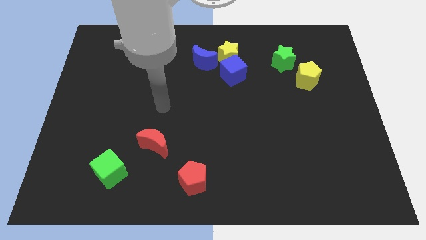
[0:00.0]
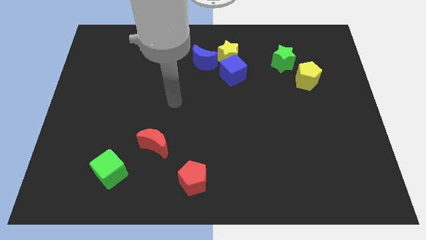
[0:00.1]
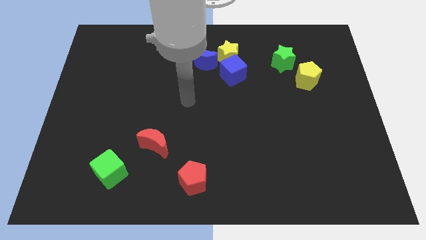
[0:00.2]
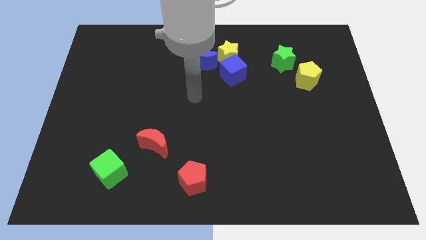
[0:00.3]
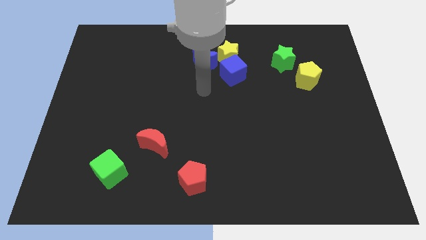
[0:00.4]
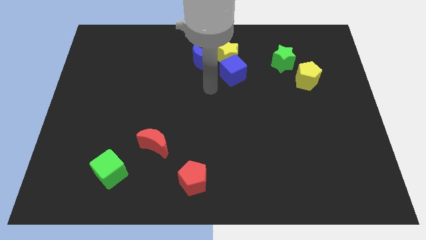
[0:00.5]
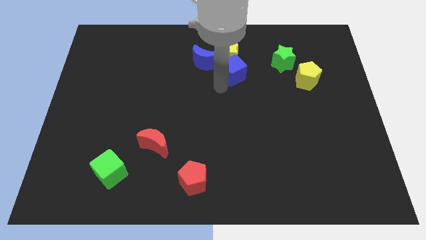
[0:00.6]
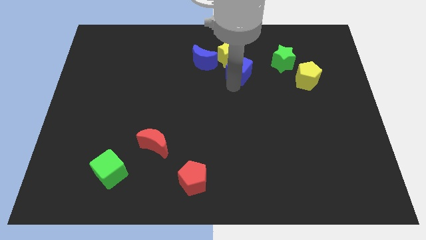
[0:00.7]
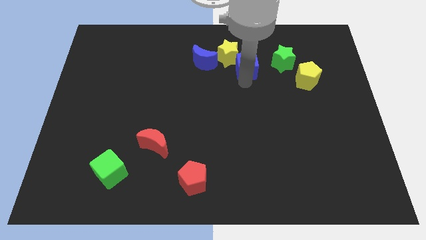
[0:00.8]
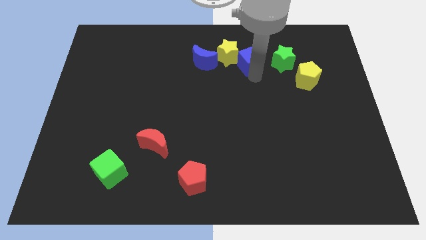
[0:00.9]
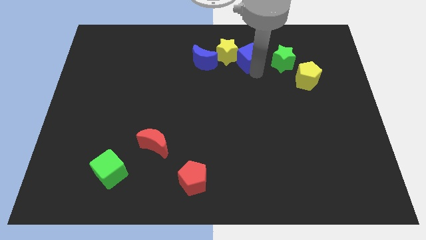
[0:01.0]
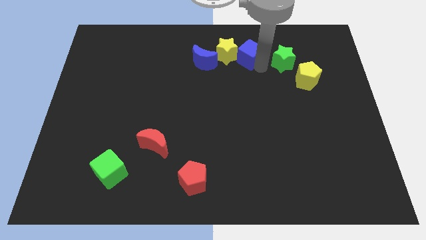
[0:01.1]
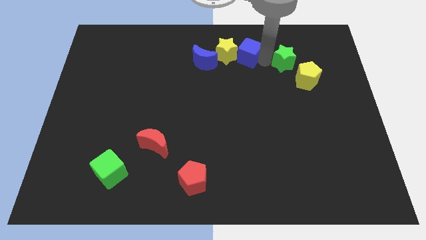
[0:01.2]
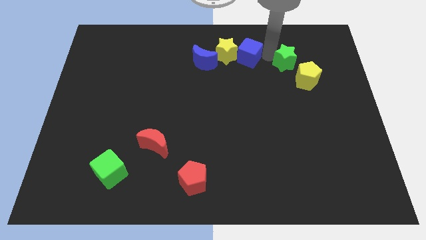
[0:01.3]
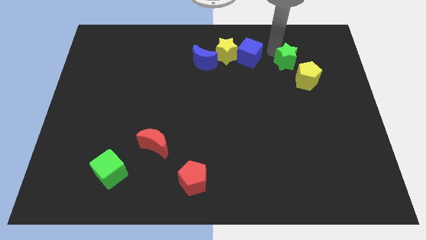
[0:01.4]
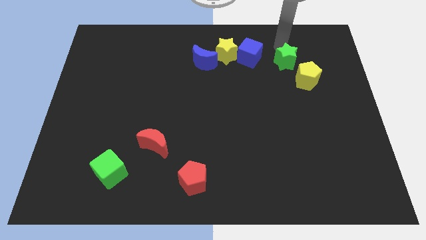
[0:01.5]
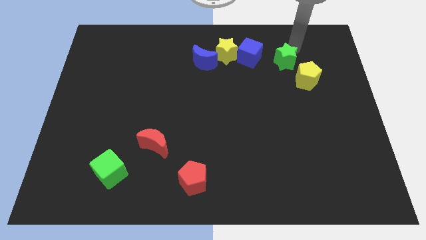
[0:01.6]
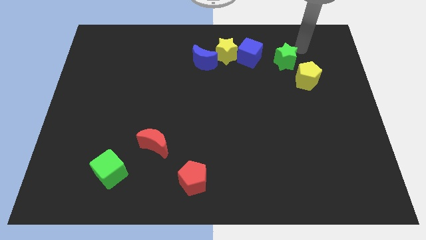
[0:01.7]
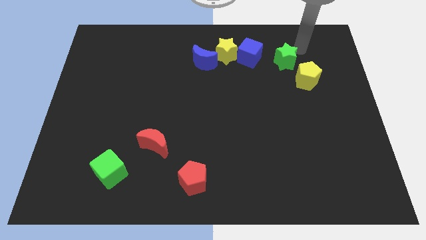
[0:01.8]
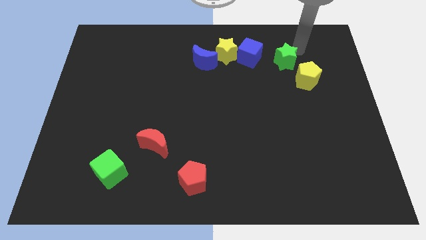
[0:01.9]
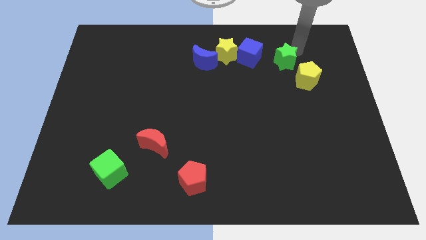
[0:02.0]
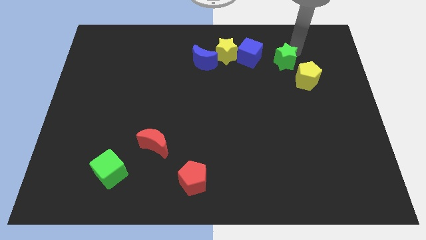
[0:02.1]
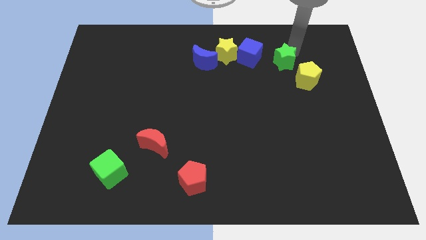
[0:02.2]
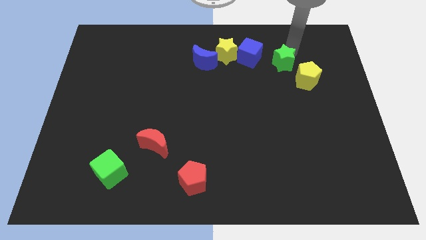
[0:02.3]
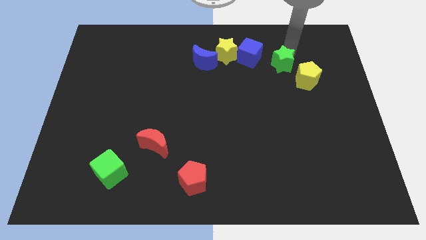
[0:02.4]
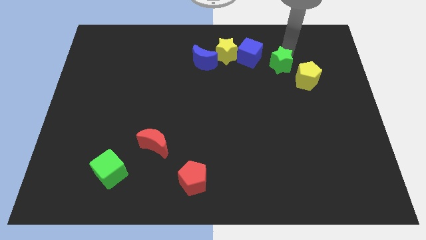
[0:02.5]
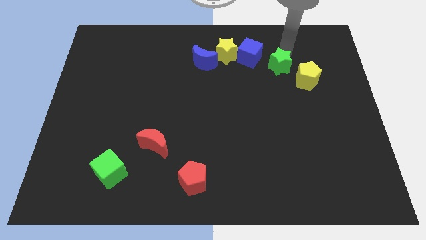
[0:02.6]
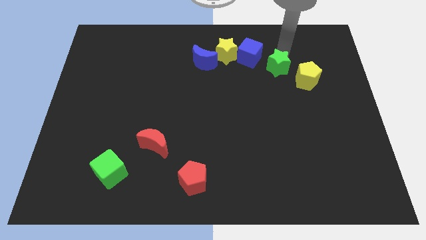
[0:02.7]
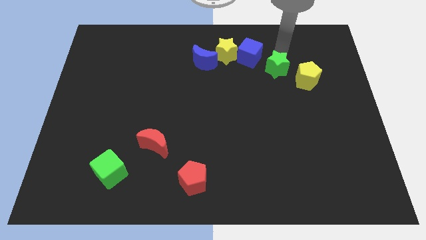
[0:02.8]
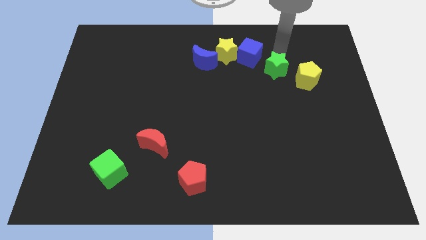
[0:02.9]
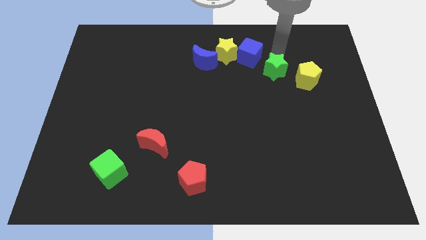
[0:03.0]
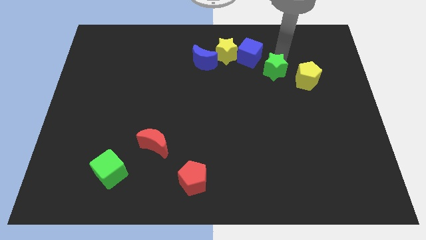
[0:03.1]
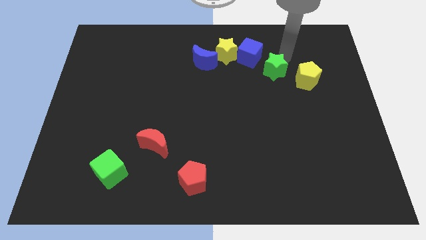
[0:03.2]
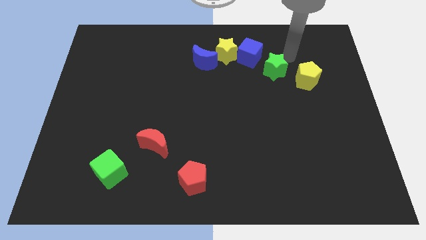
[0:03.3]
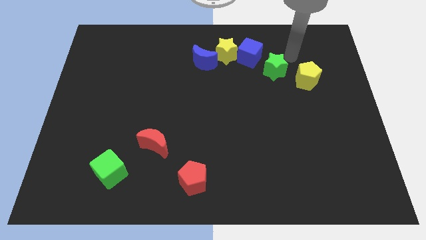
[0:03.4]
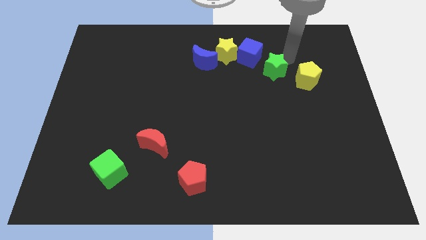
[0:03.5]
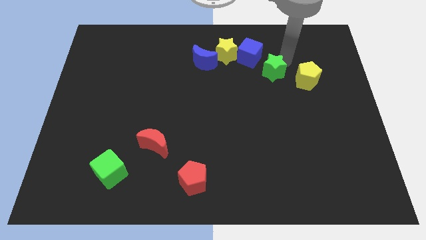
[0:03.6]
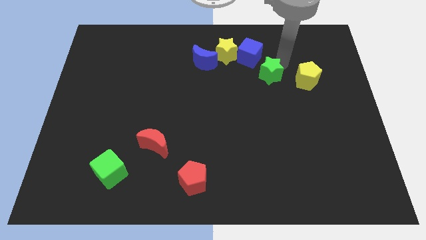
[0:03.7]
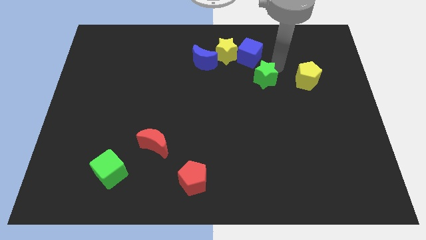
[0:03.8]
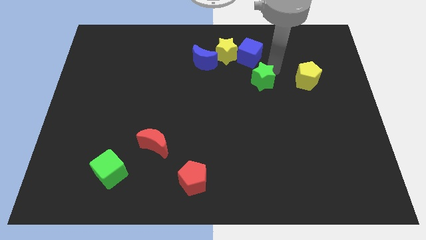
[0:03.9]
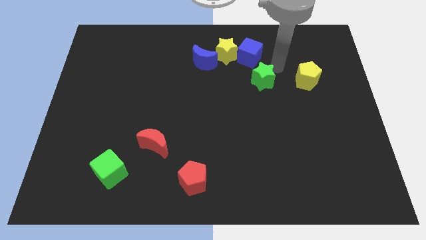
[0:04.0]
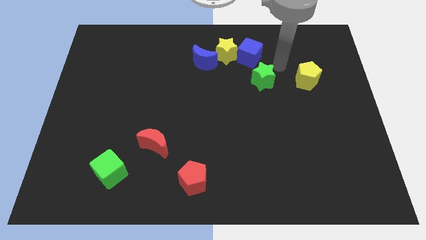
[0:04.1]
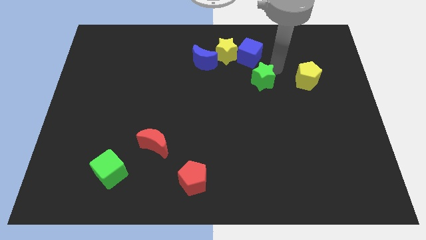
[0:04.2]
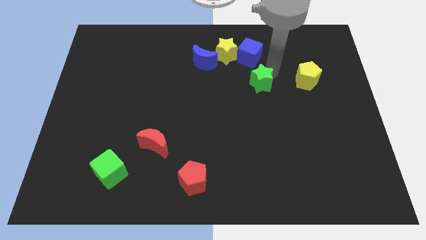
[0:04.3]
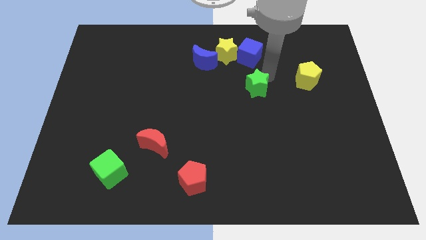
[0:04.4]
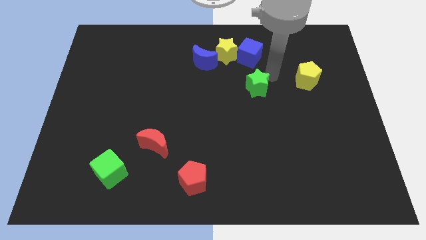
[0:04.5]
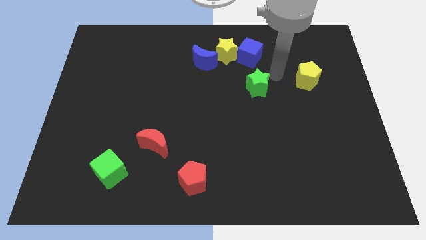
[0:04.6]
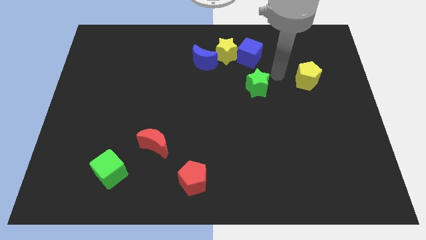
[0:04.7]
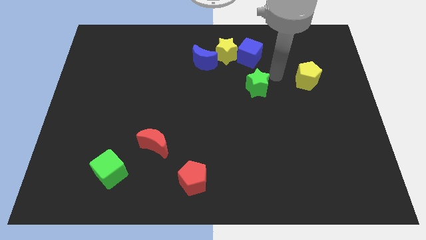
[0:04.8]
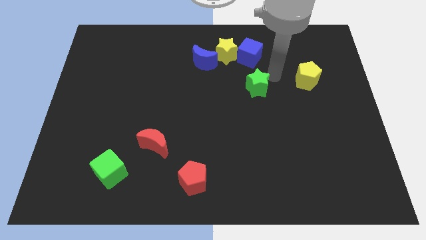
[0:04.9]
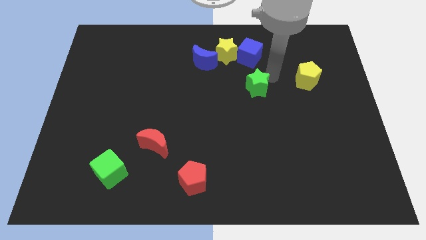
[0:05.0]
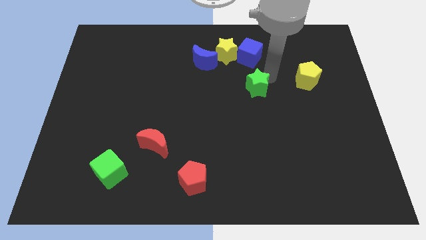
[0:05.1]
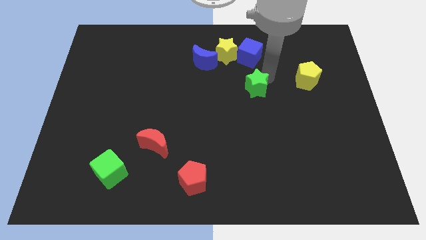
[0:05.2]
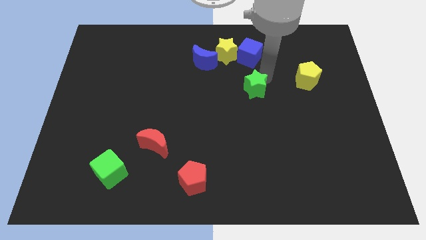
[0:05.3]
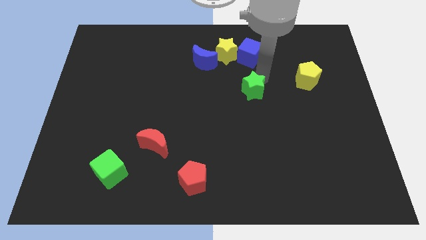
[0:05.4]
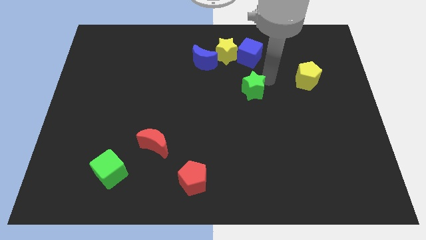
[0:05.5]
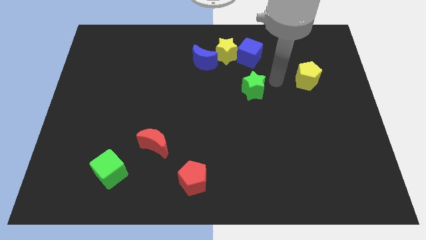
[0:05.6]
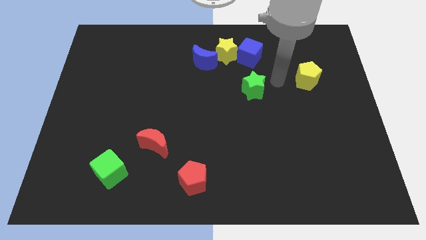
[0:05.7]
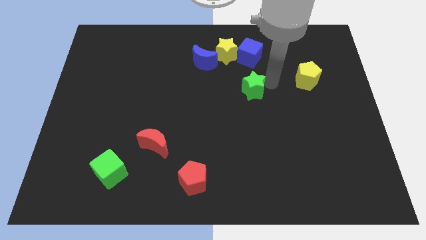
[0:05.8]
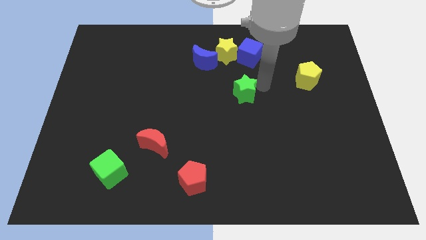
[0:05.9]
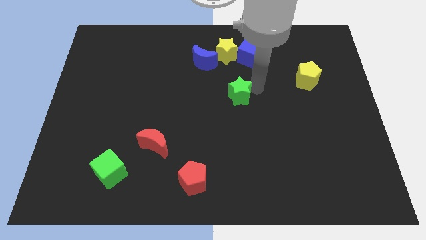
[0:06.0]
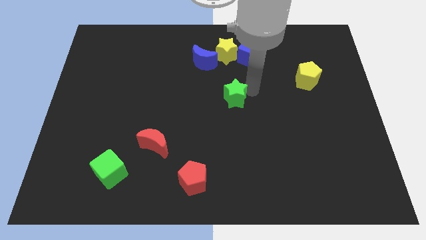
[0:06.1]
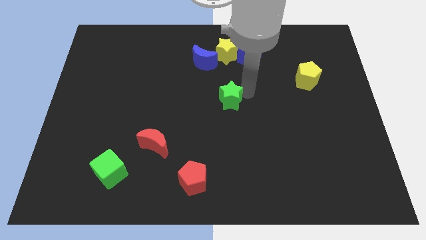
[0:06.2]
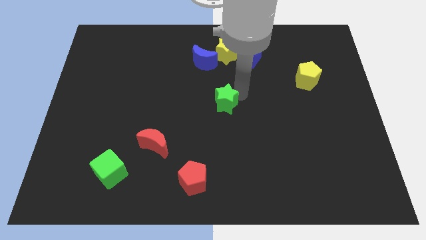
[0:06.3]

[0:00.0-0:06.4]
slide the green star down and then to the left

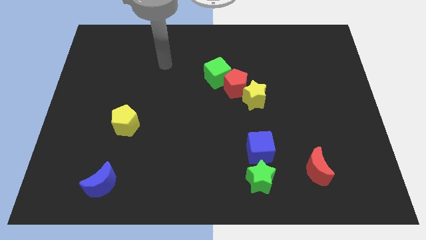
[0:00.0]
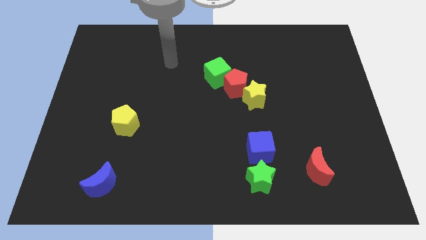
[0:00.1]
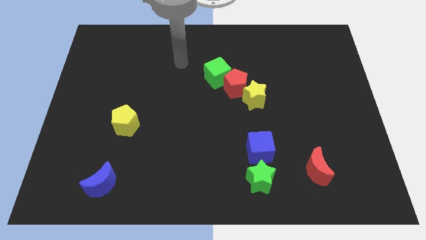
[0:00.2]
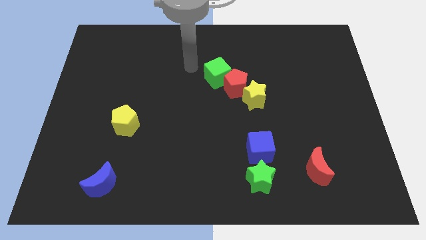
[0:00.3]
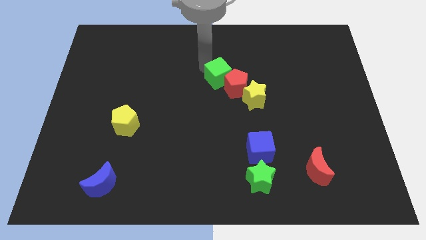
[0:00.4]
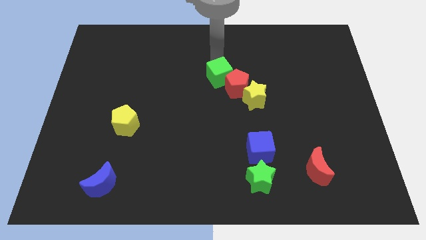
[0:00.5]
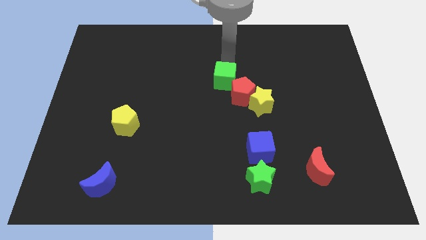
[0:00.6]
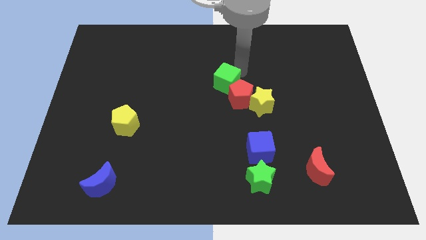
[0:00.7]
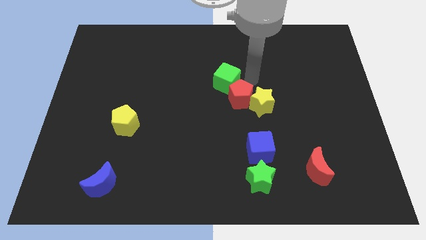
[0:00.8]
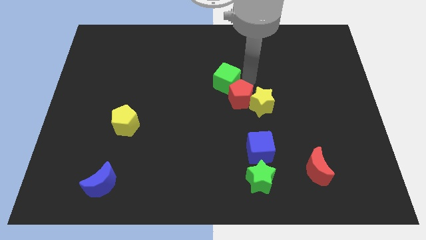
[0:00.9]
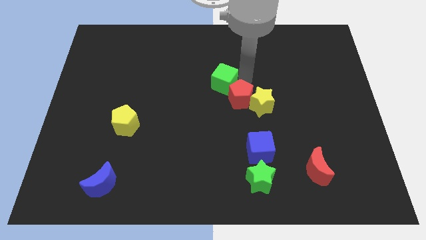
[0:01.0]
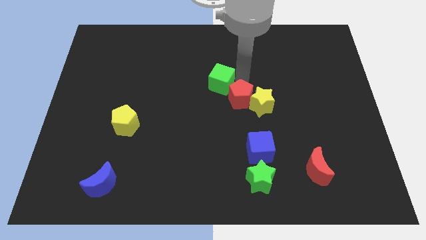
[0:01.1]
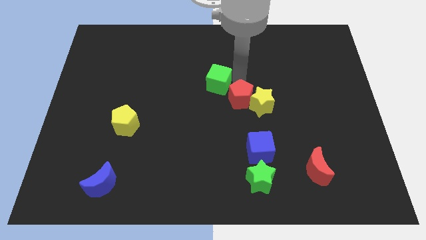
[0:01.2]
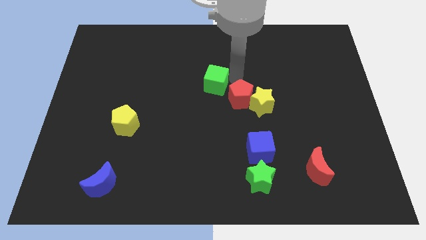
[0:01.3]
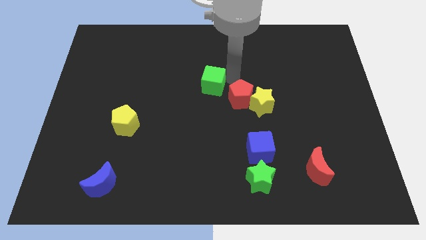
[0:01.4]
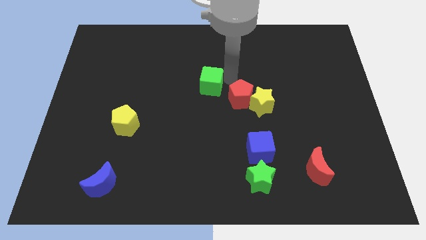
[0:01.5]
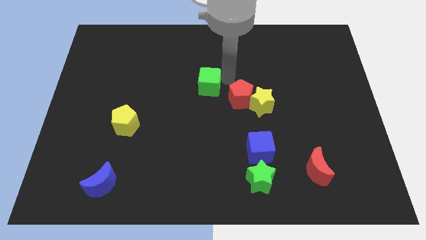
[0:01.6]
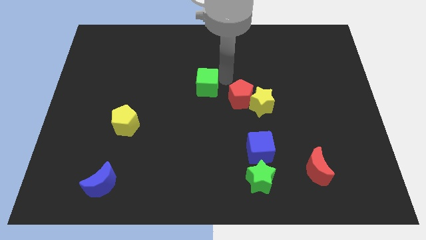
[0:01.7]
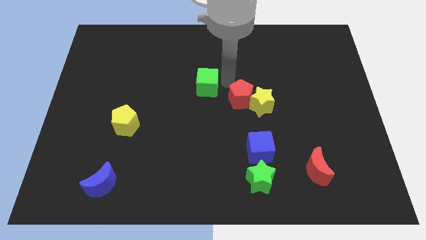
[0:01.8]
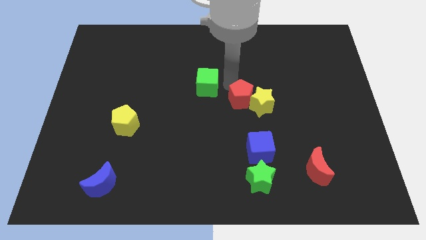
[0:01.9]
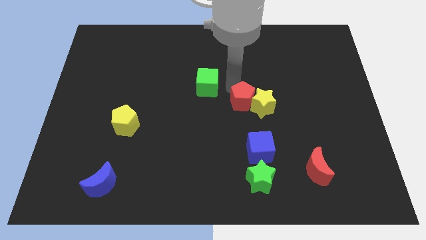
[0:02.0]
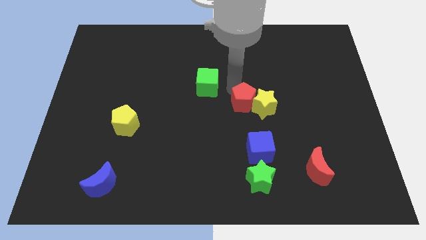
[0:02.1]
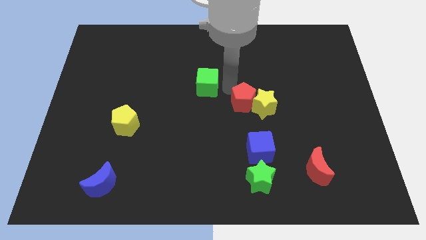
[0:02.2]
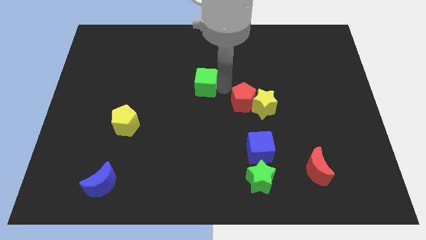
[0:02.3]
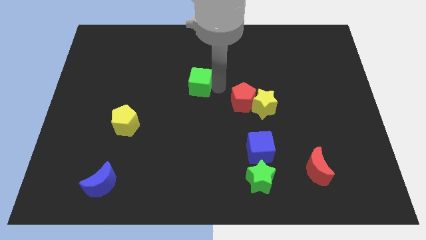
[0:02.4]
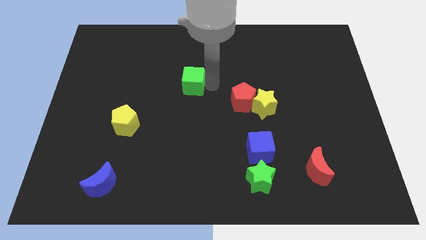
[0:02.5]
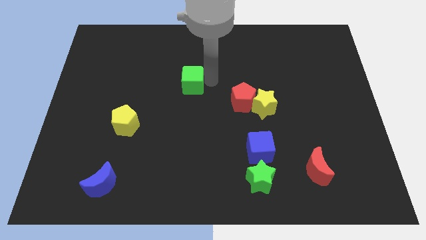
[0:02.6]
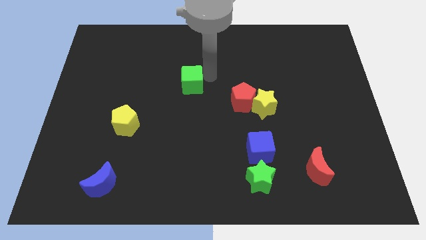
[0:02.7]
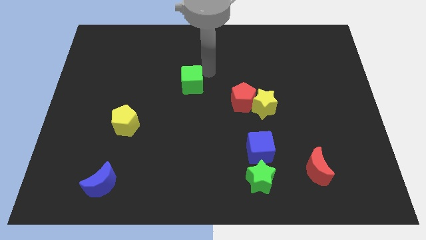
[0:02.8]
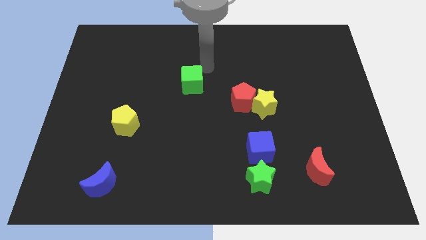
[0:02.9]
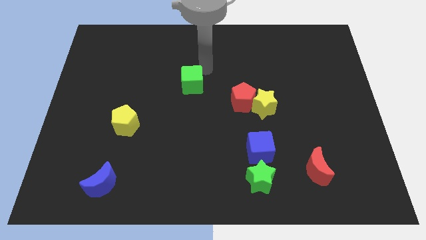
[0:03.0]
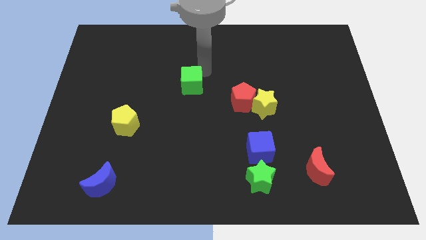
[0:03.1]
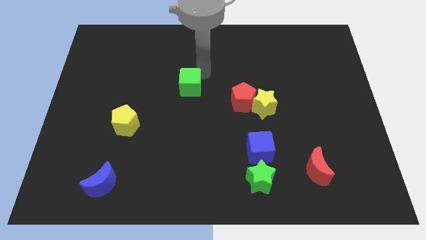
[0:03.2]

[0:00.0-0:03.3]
slightly move the green cube downwards and then to the left
